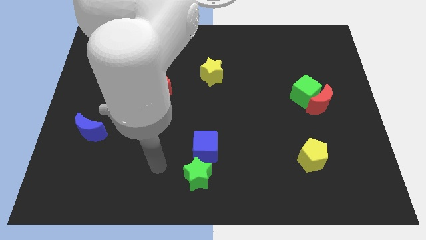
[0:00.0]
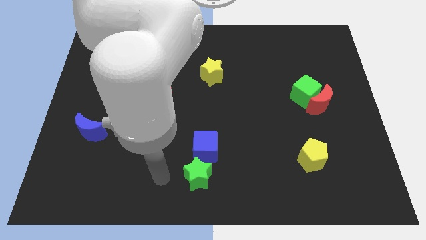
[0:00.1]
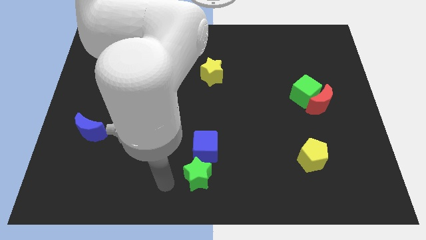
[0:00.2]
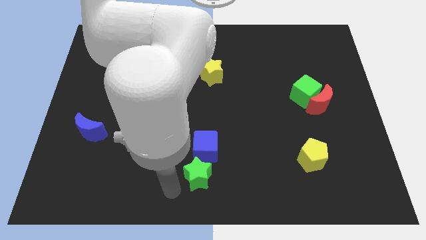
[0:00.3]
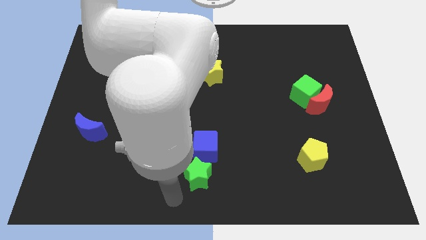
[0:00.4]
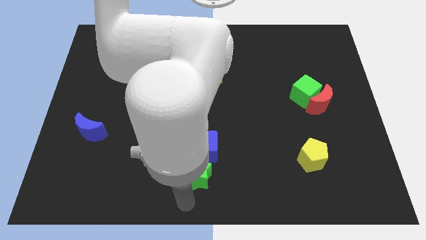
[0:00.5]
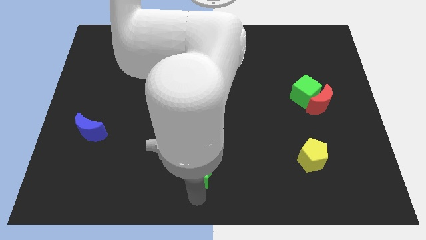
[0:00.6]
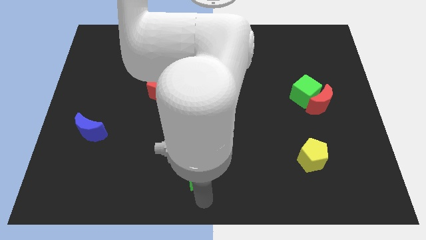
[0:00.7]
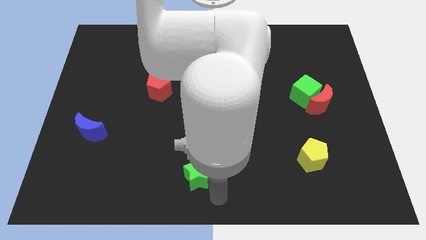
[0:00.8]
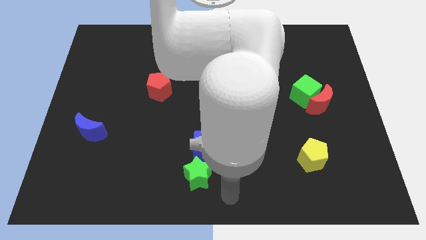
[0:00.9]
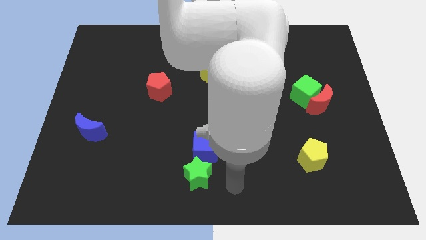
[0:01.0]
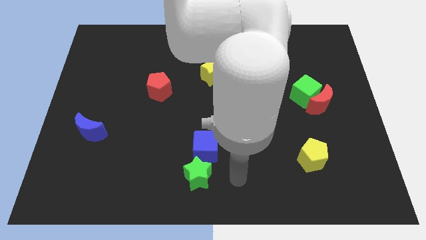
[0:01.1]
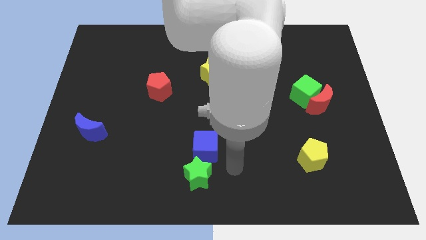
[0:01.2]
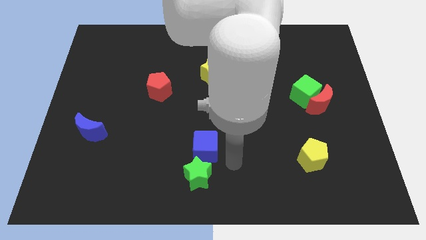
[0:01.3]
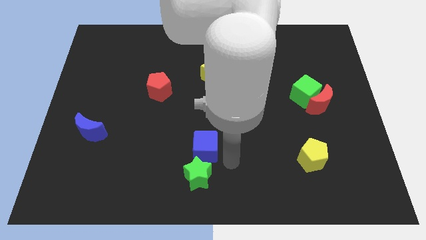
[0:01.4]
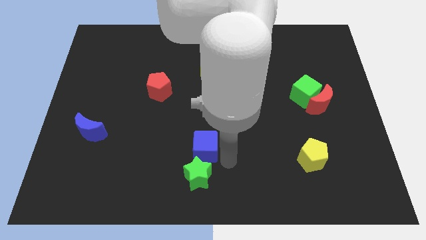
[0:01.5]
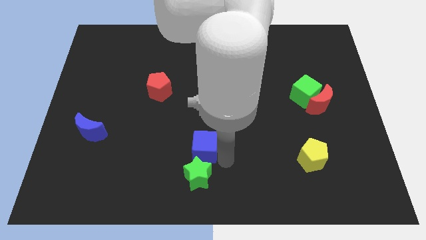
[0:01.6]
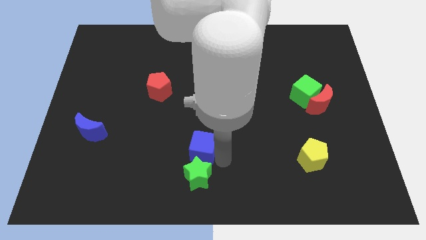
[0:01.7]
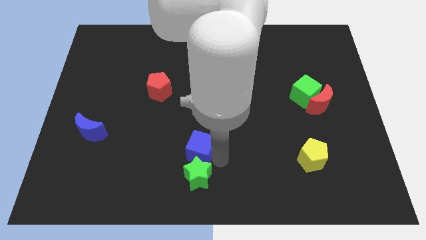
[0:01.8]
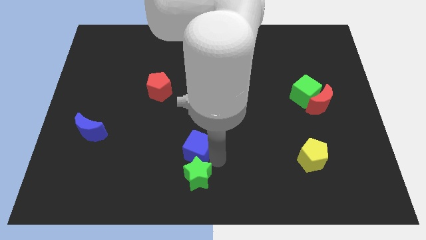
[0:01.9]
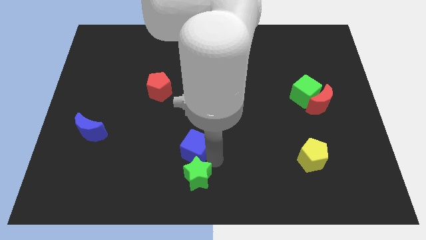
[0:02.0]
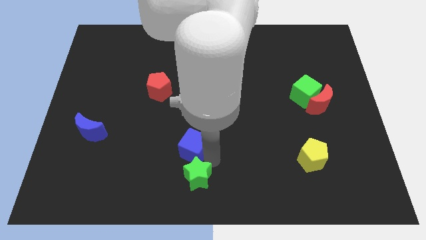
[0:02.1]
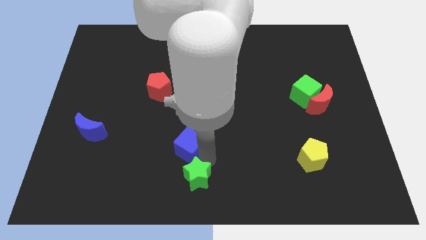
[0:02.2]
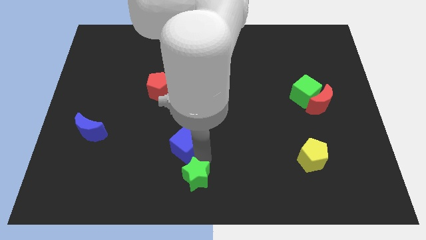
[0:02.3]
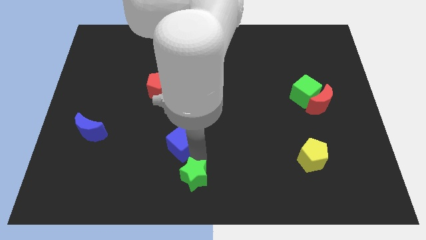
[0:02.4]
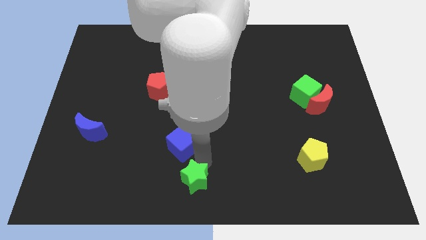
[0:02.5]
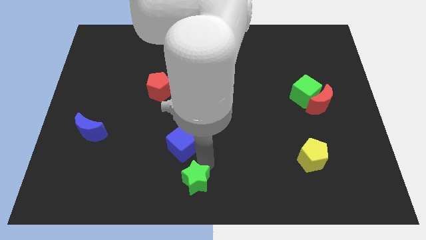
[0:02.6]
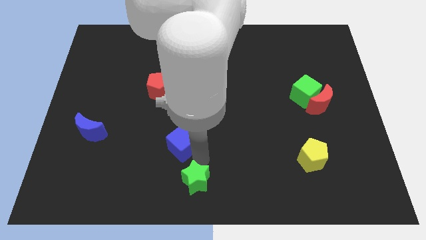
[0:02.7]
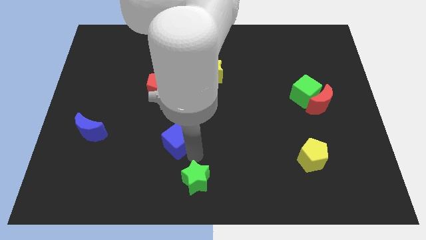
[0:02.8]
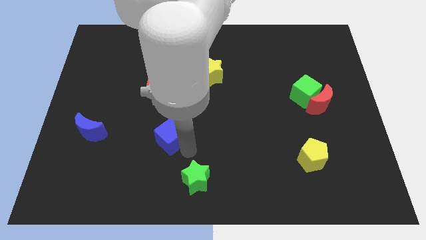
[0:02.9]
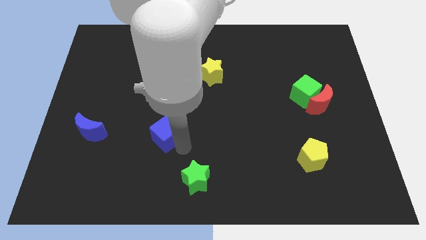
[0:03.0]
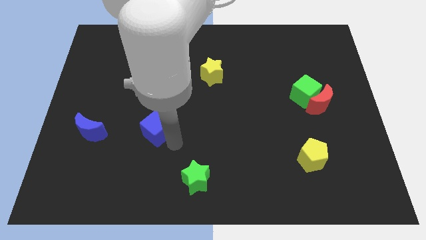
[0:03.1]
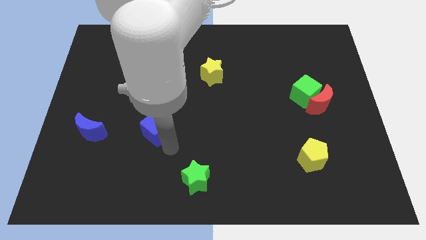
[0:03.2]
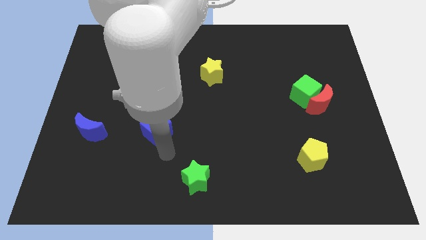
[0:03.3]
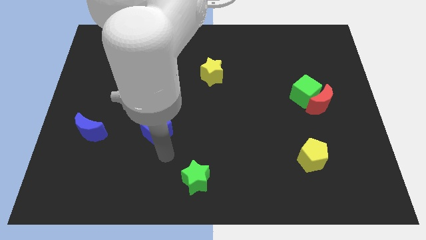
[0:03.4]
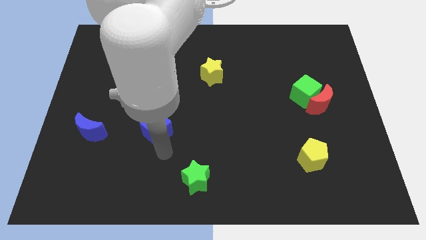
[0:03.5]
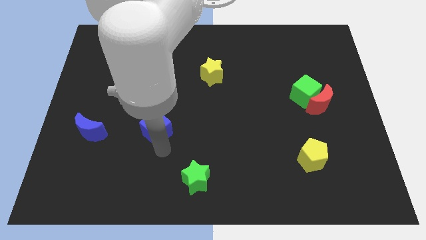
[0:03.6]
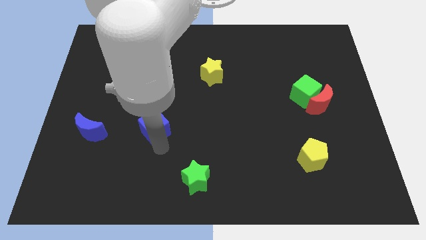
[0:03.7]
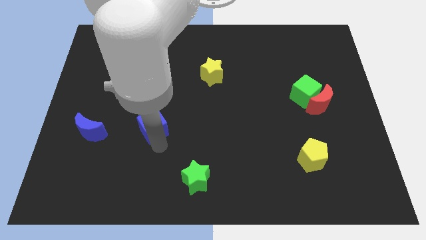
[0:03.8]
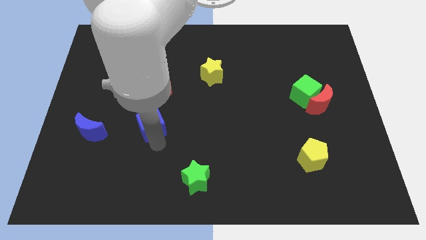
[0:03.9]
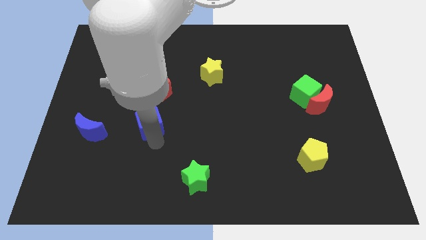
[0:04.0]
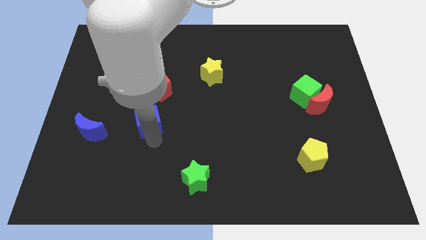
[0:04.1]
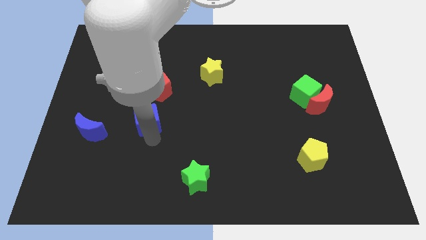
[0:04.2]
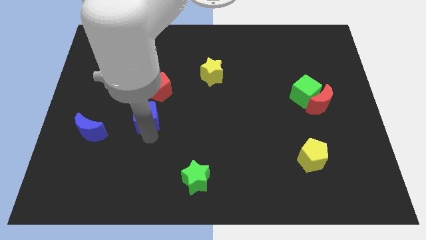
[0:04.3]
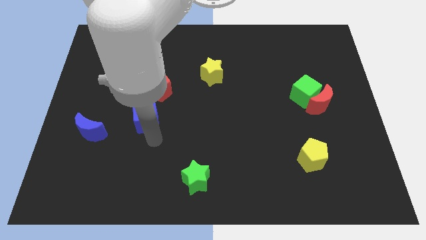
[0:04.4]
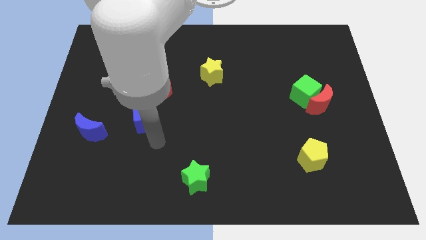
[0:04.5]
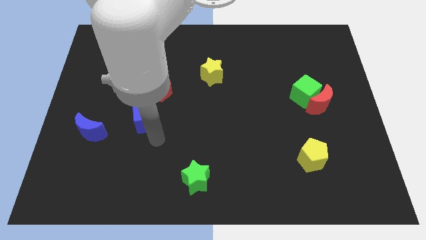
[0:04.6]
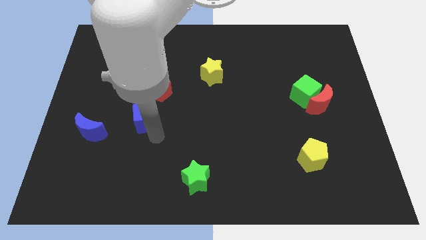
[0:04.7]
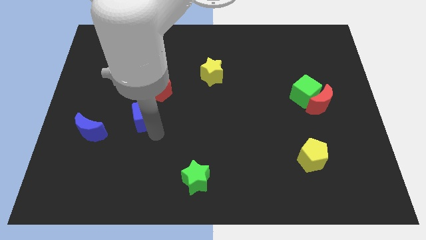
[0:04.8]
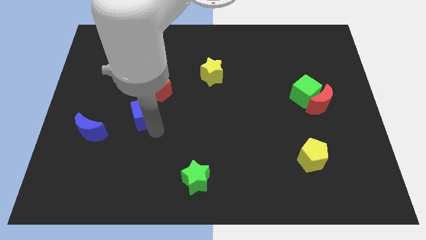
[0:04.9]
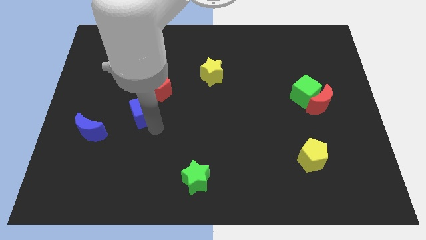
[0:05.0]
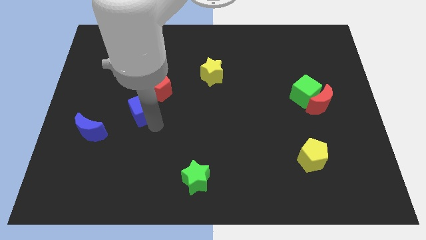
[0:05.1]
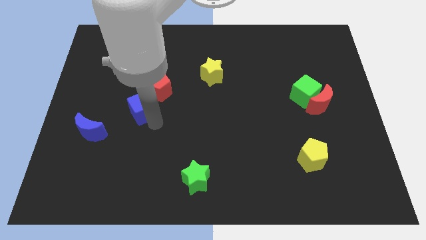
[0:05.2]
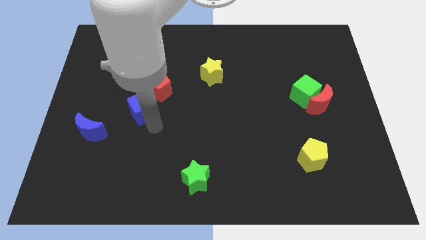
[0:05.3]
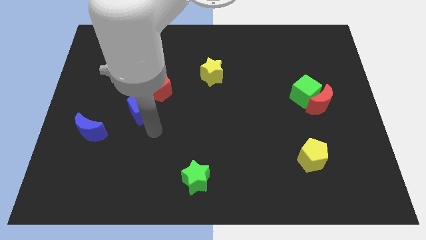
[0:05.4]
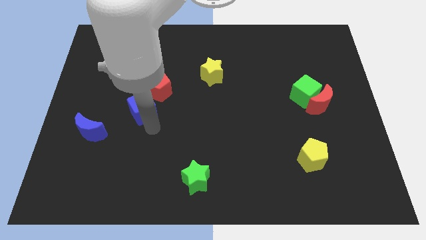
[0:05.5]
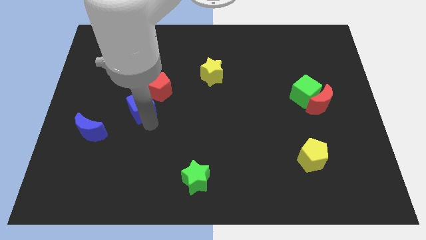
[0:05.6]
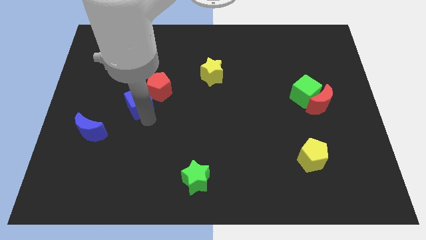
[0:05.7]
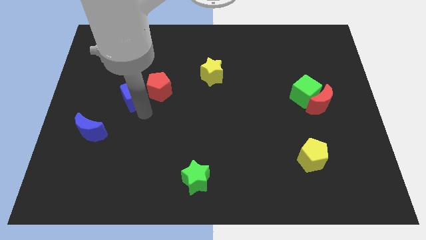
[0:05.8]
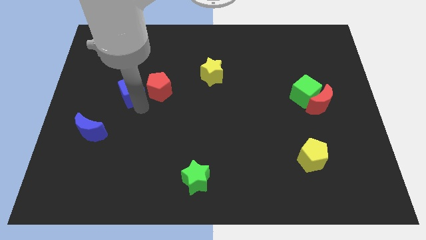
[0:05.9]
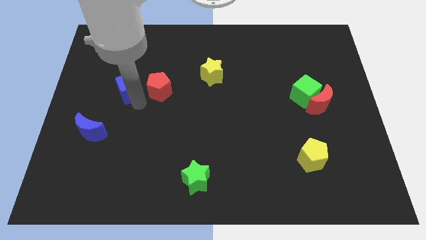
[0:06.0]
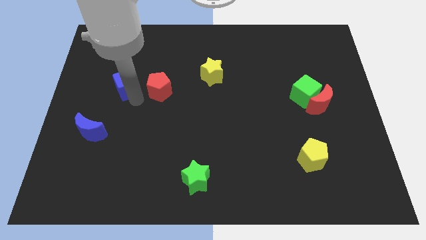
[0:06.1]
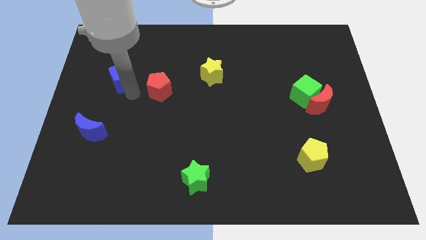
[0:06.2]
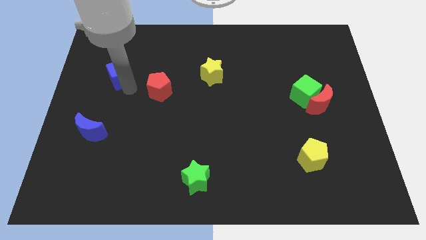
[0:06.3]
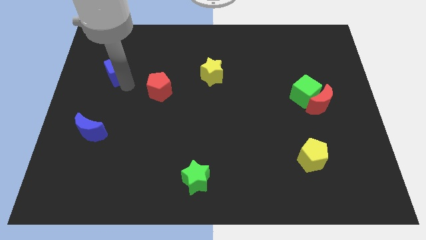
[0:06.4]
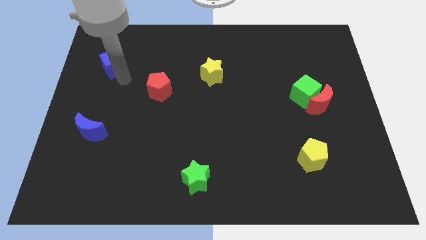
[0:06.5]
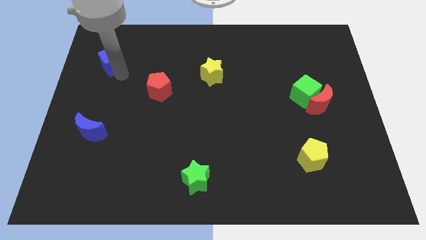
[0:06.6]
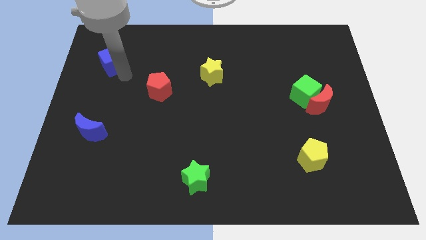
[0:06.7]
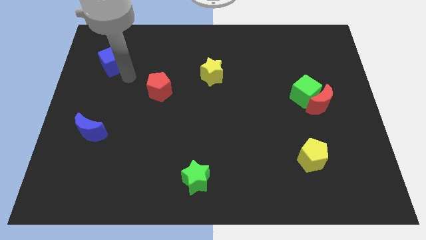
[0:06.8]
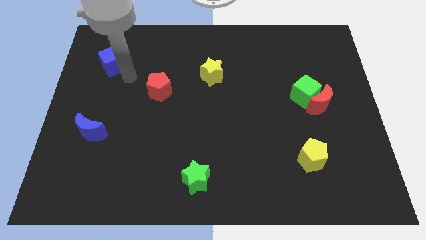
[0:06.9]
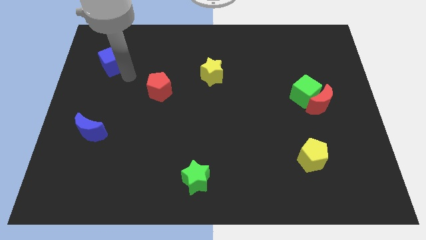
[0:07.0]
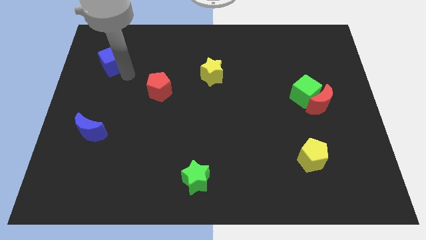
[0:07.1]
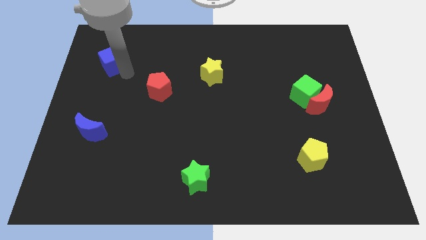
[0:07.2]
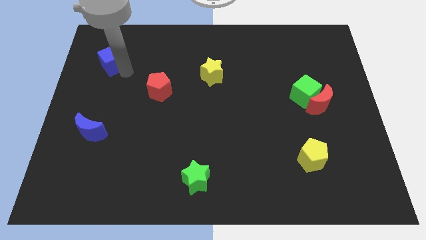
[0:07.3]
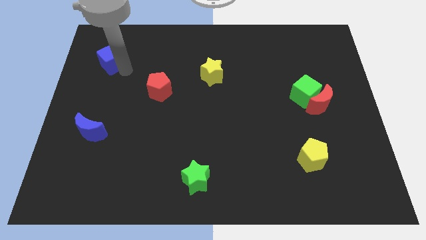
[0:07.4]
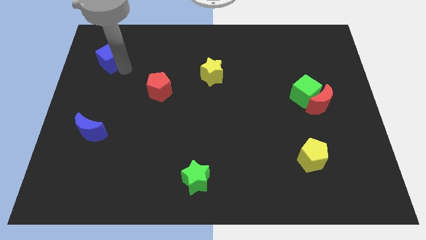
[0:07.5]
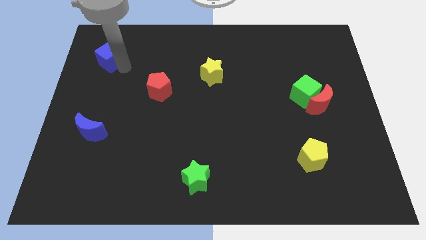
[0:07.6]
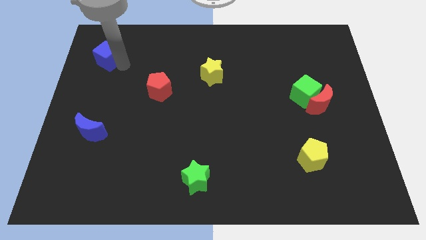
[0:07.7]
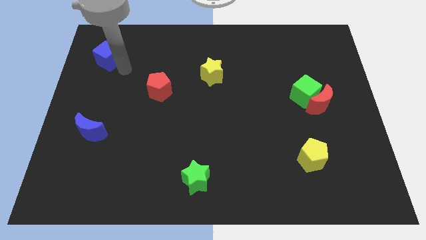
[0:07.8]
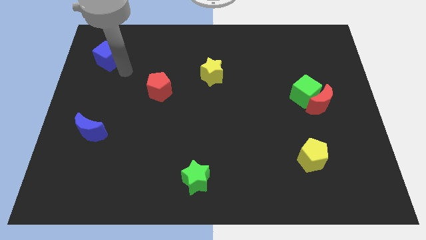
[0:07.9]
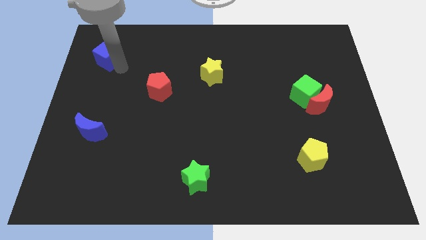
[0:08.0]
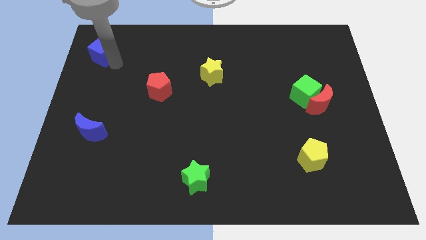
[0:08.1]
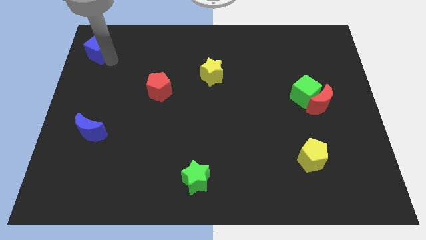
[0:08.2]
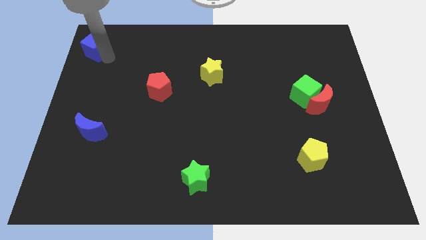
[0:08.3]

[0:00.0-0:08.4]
push the blue cube to the top left corner
